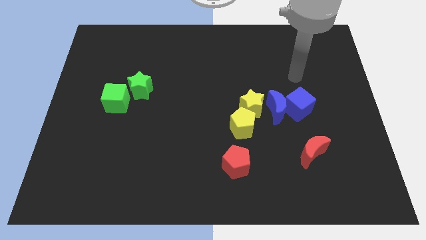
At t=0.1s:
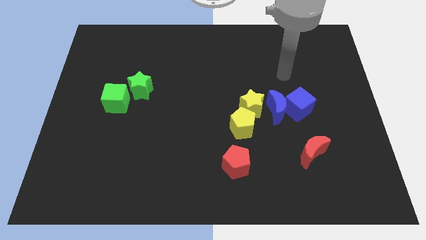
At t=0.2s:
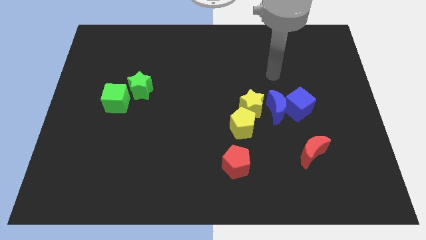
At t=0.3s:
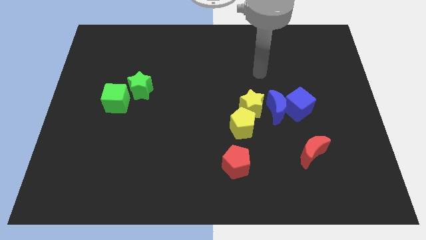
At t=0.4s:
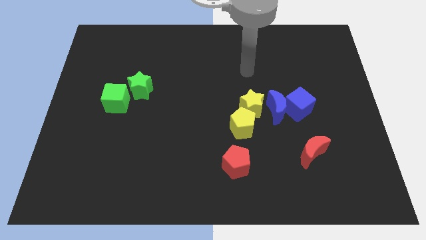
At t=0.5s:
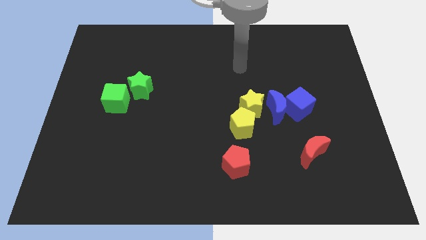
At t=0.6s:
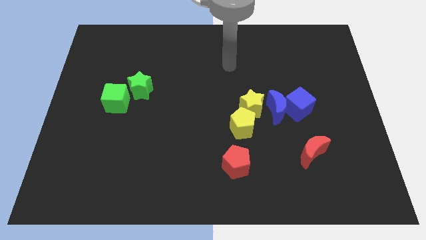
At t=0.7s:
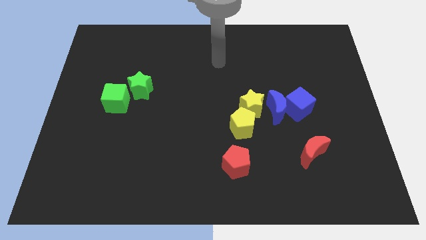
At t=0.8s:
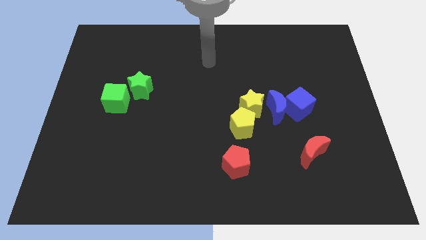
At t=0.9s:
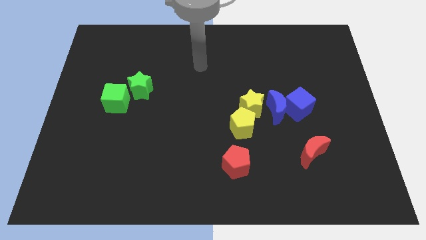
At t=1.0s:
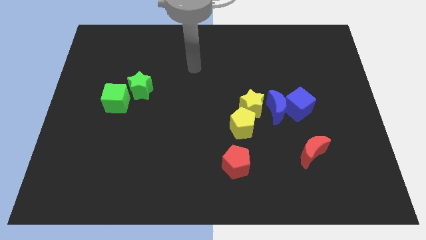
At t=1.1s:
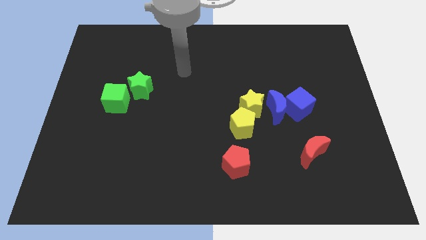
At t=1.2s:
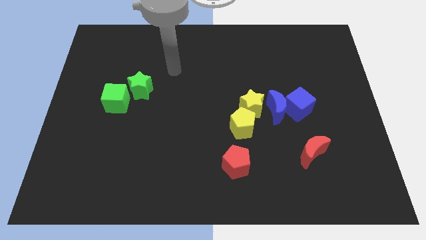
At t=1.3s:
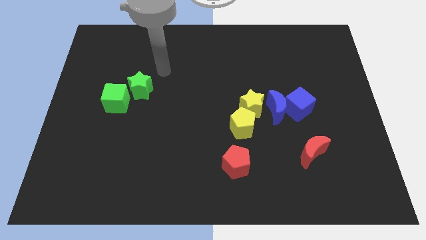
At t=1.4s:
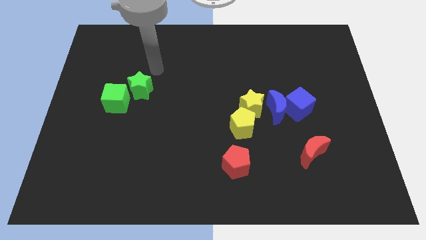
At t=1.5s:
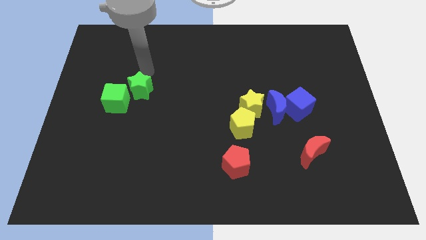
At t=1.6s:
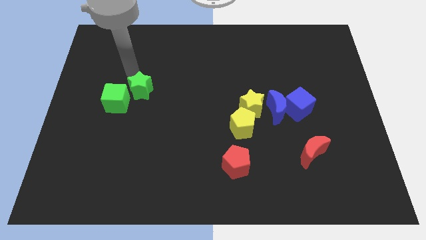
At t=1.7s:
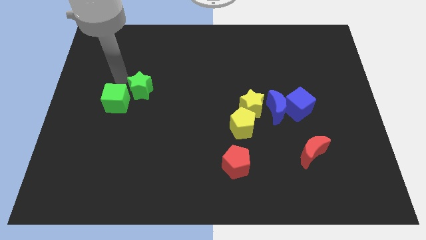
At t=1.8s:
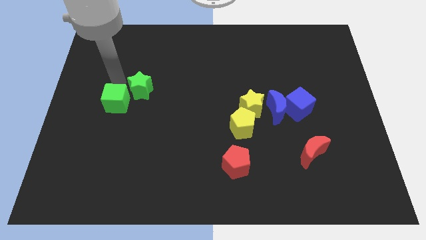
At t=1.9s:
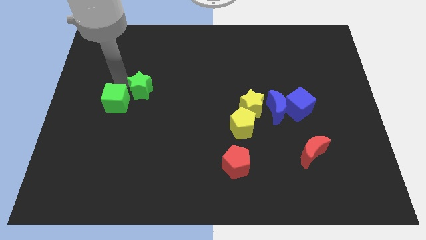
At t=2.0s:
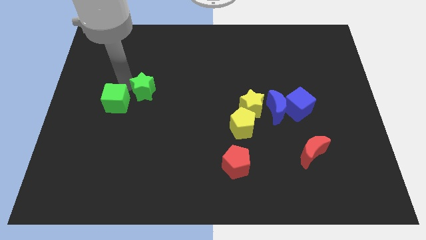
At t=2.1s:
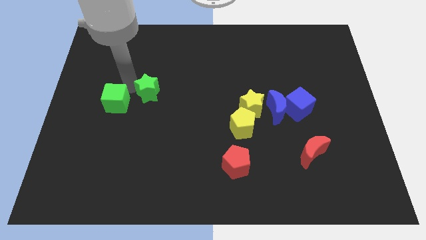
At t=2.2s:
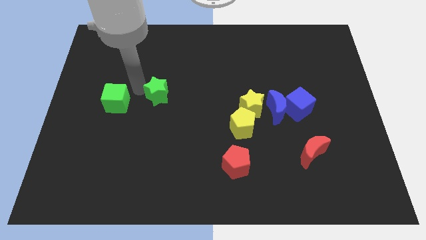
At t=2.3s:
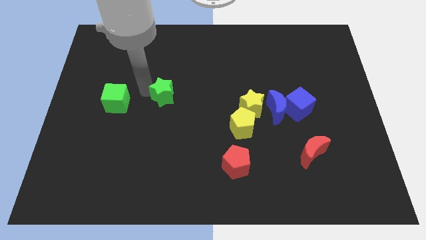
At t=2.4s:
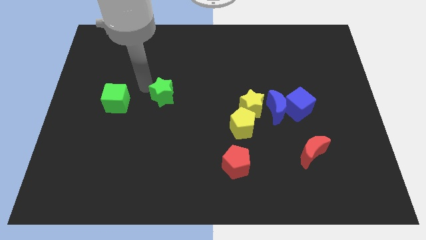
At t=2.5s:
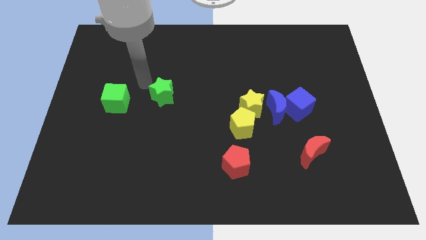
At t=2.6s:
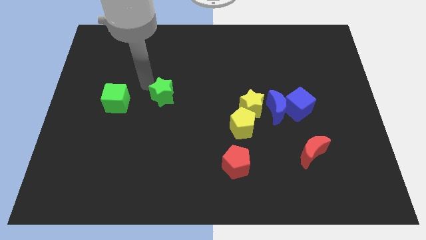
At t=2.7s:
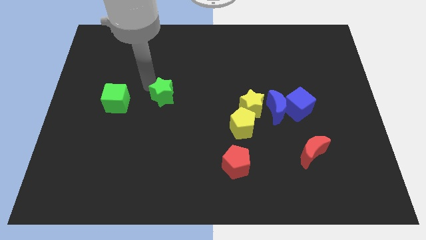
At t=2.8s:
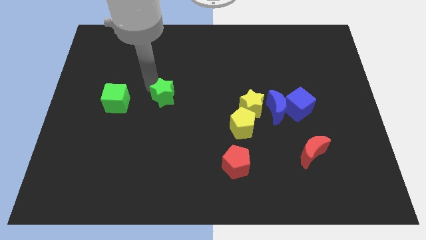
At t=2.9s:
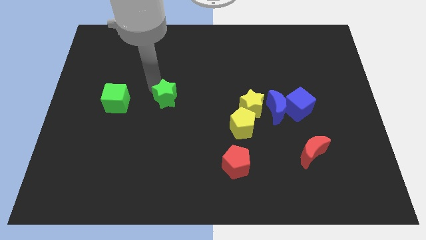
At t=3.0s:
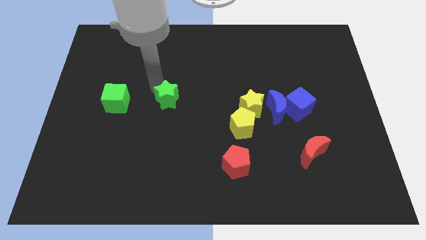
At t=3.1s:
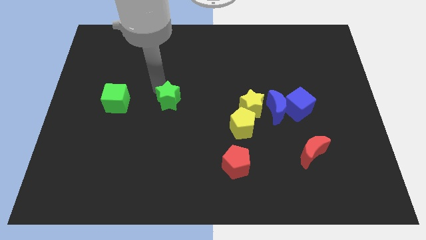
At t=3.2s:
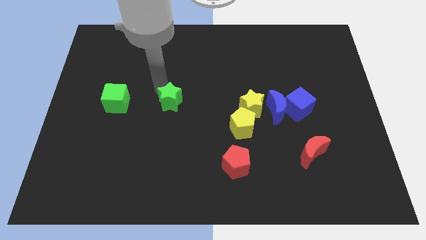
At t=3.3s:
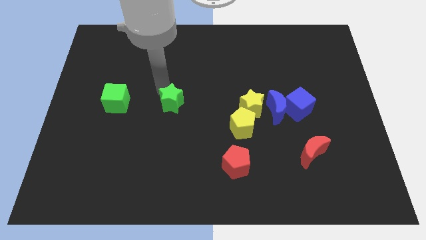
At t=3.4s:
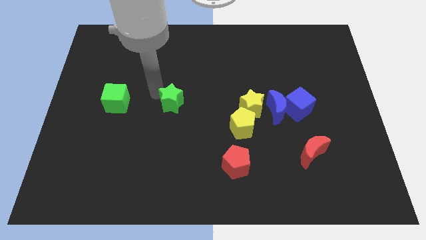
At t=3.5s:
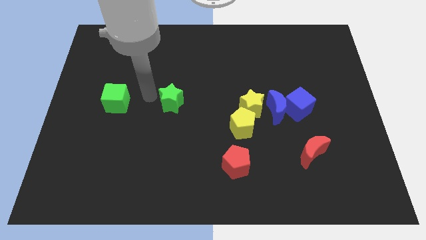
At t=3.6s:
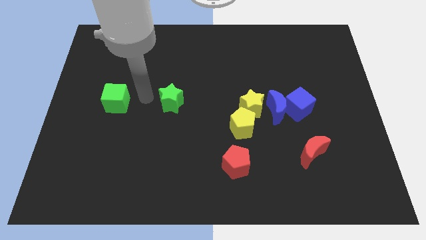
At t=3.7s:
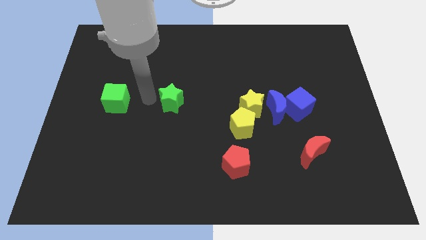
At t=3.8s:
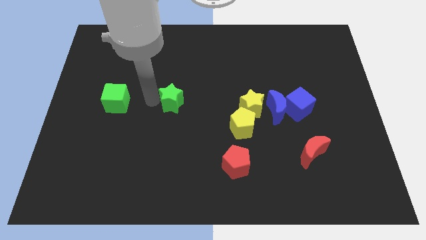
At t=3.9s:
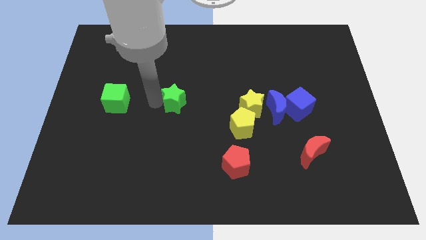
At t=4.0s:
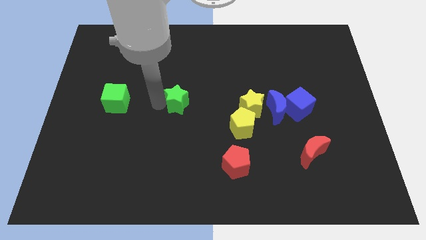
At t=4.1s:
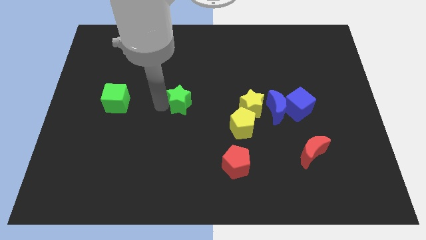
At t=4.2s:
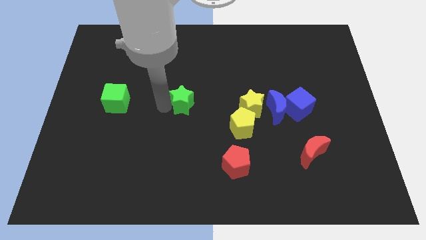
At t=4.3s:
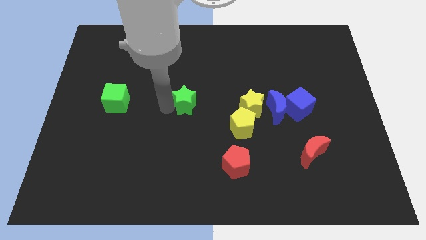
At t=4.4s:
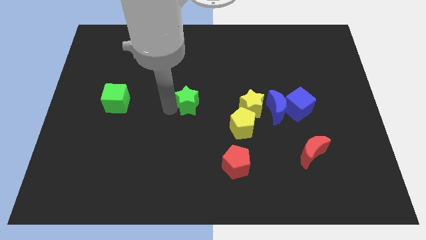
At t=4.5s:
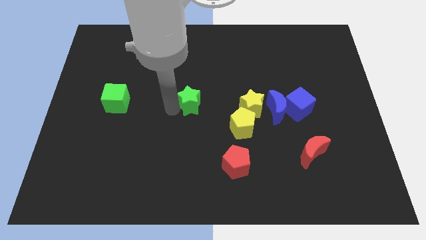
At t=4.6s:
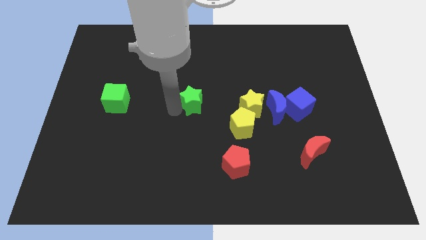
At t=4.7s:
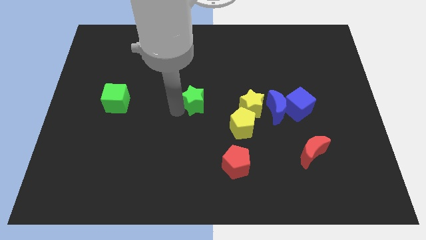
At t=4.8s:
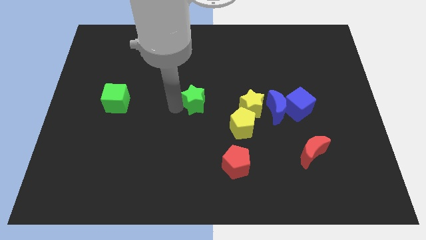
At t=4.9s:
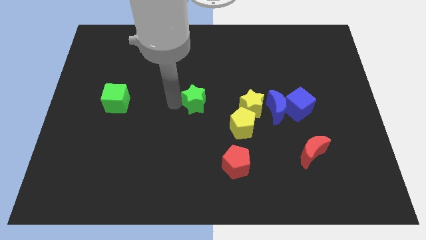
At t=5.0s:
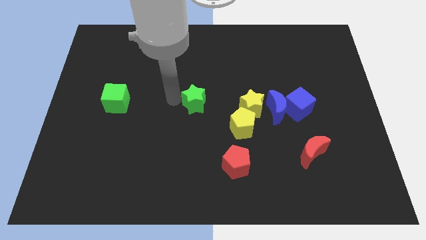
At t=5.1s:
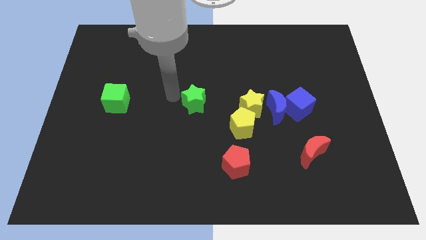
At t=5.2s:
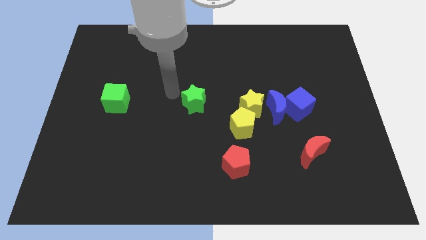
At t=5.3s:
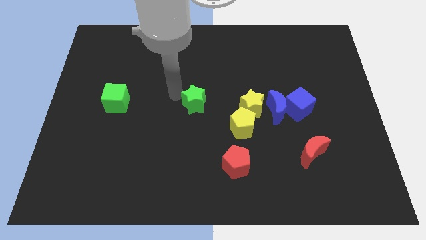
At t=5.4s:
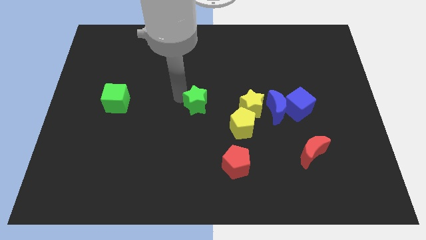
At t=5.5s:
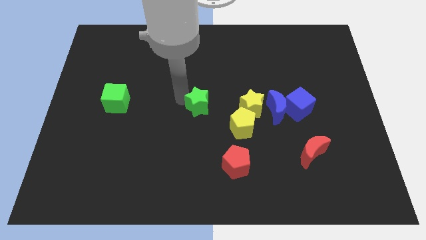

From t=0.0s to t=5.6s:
put the green star to the top left of the yellow pentagon

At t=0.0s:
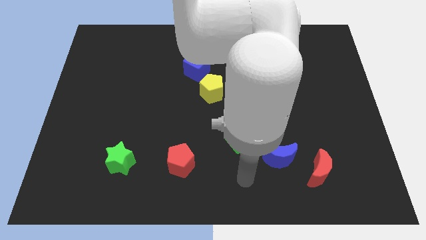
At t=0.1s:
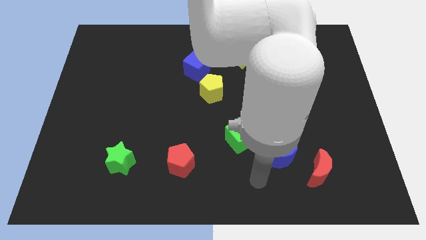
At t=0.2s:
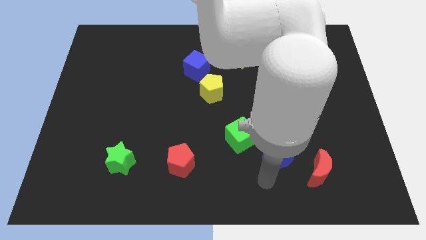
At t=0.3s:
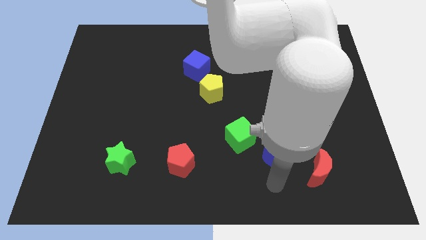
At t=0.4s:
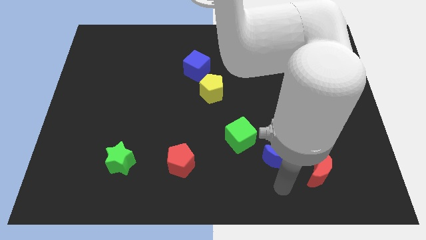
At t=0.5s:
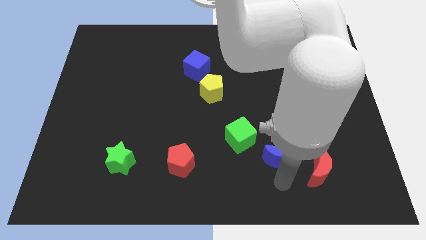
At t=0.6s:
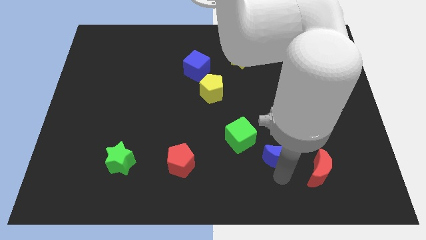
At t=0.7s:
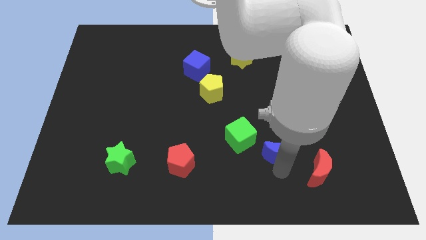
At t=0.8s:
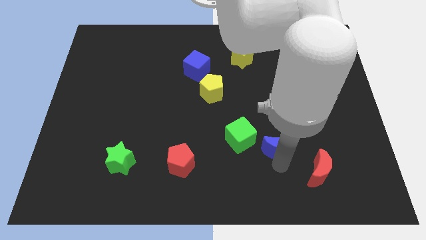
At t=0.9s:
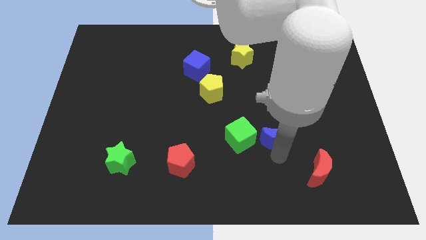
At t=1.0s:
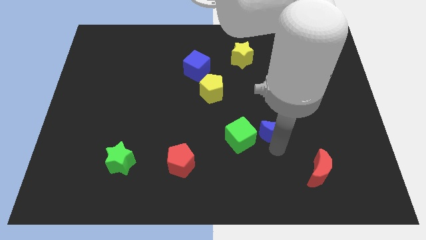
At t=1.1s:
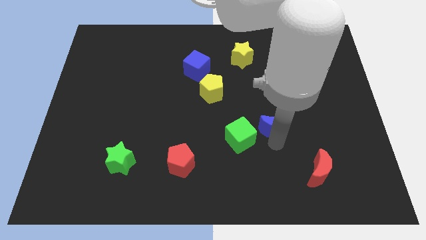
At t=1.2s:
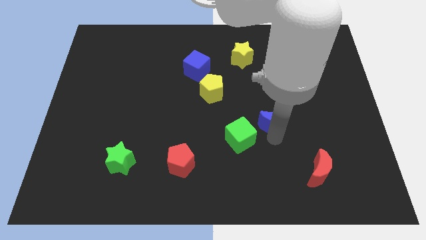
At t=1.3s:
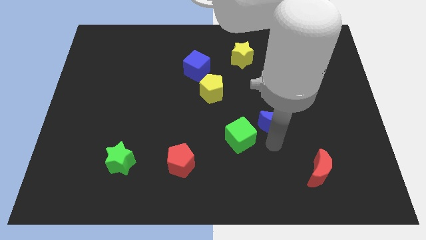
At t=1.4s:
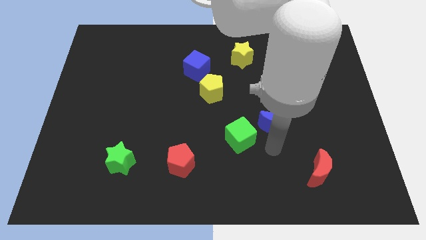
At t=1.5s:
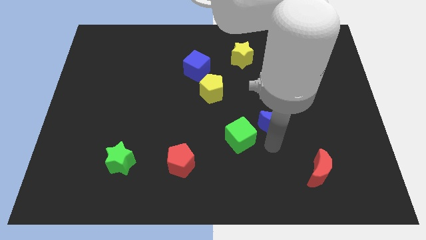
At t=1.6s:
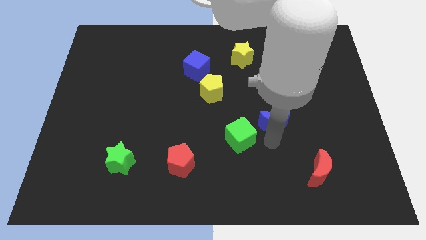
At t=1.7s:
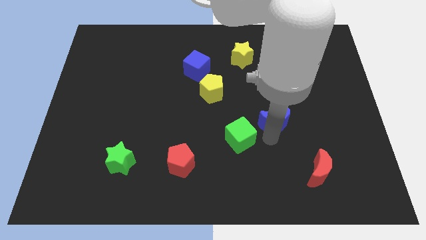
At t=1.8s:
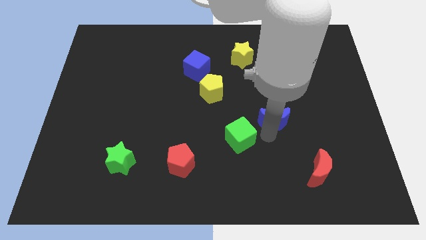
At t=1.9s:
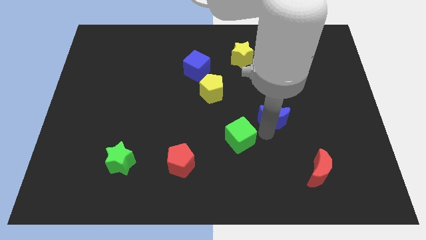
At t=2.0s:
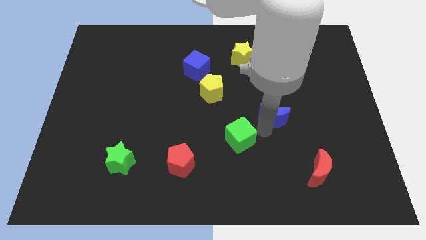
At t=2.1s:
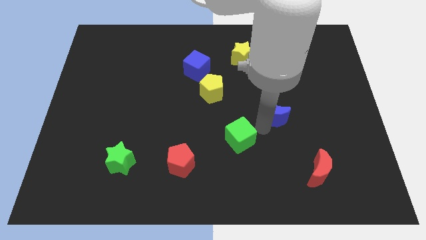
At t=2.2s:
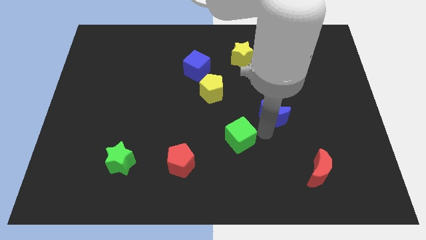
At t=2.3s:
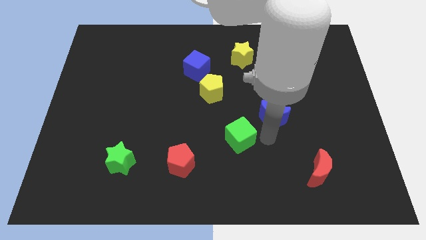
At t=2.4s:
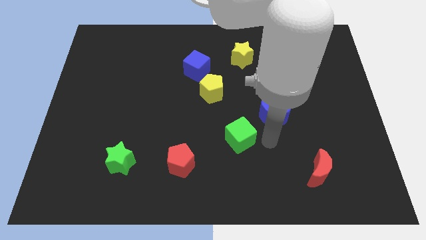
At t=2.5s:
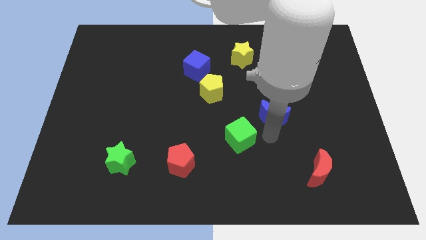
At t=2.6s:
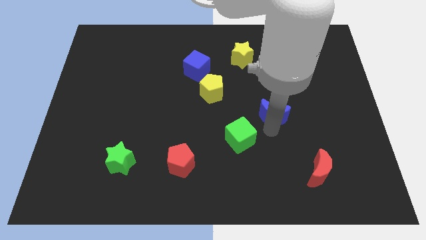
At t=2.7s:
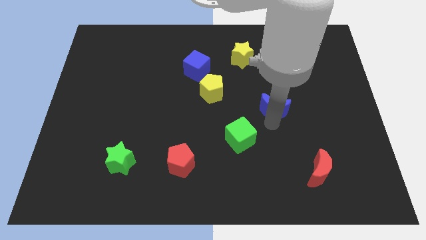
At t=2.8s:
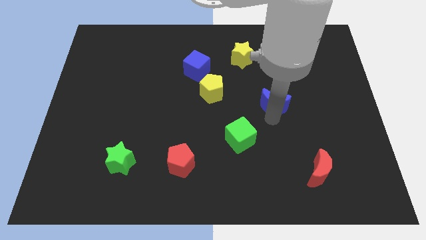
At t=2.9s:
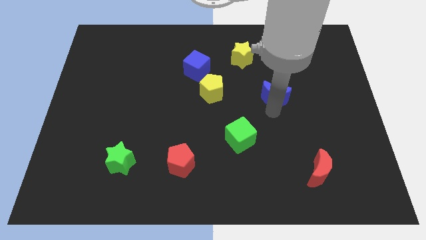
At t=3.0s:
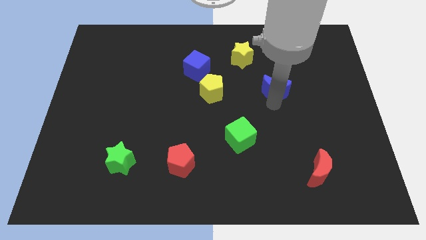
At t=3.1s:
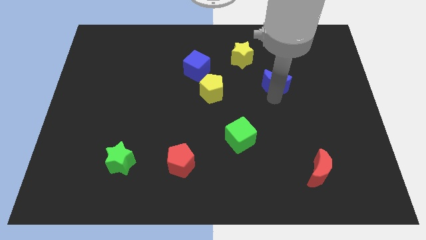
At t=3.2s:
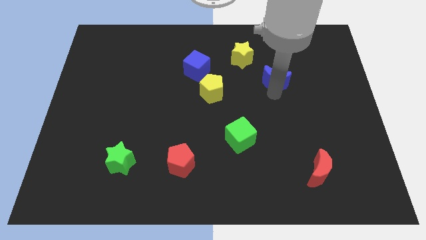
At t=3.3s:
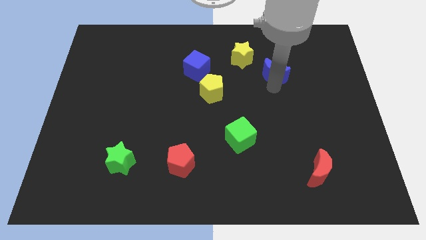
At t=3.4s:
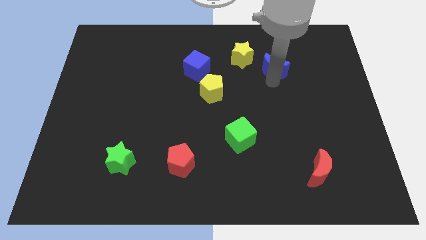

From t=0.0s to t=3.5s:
push the blue moon just right of the yellow star
